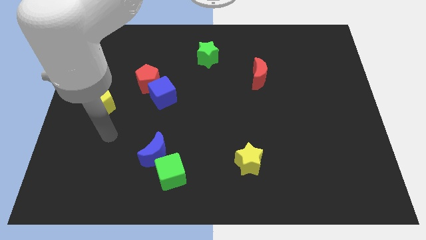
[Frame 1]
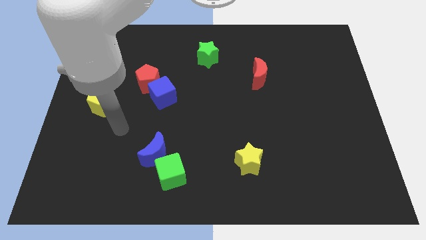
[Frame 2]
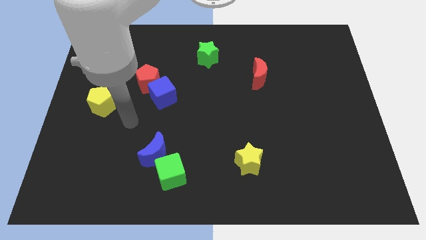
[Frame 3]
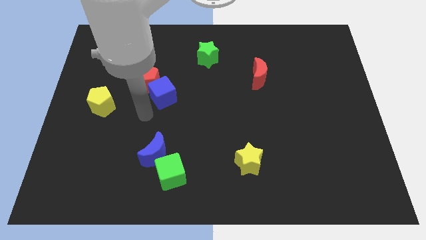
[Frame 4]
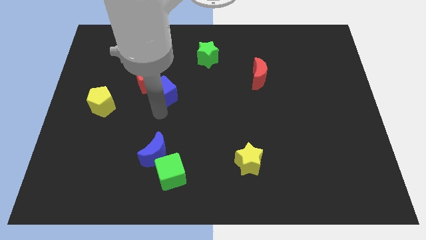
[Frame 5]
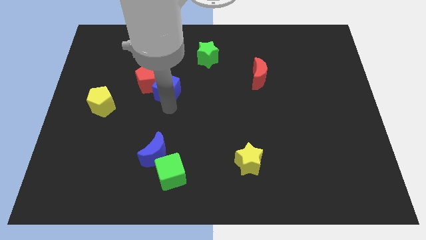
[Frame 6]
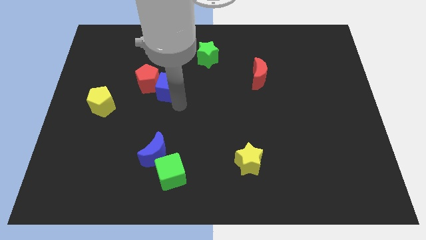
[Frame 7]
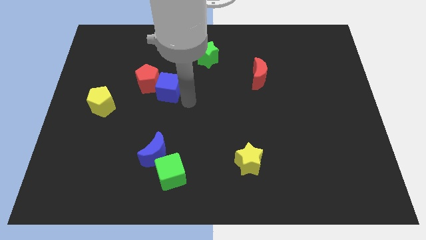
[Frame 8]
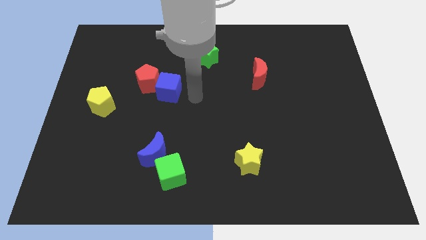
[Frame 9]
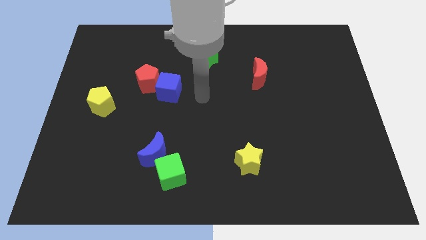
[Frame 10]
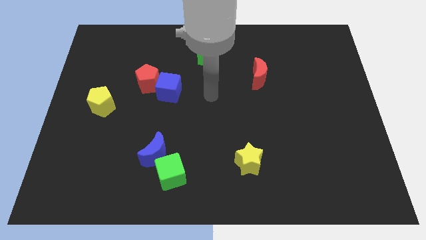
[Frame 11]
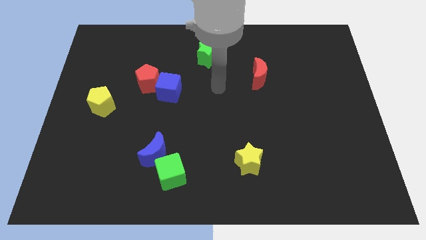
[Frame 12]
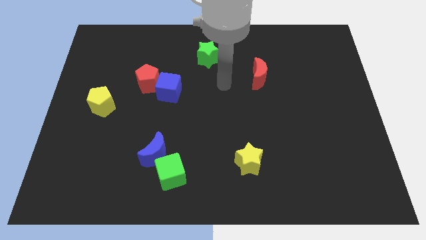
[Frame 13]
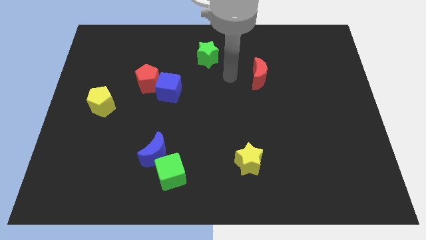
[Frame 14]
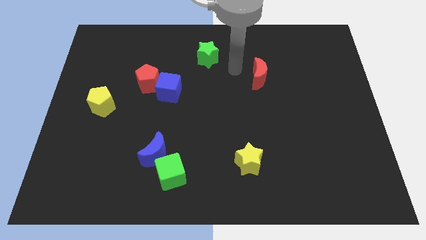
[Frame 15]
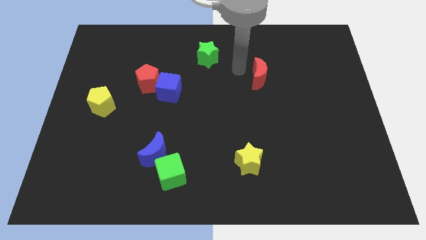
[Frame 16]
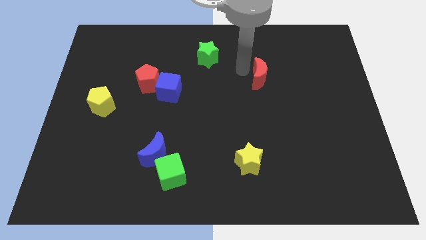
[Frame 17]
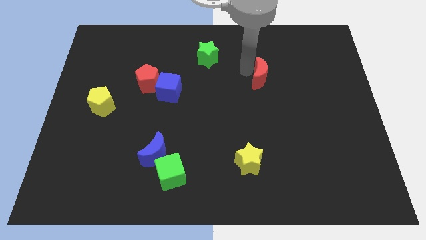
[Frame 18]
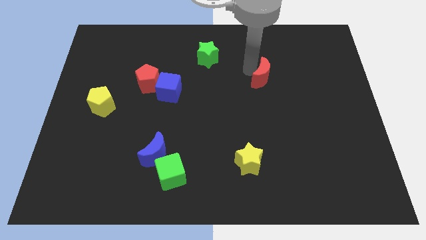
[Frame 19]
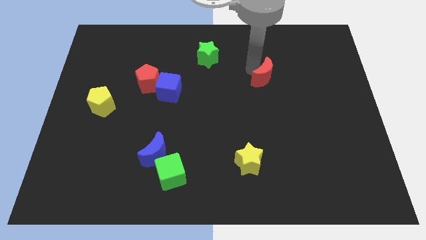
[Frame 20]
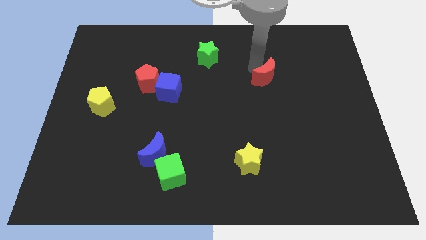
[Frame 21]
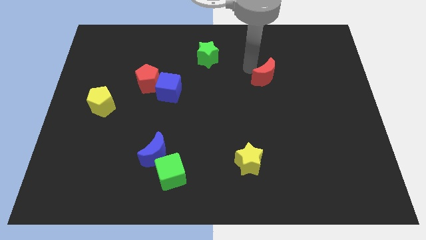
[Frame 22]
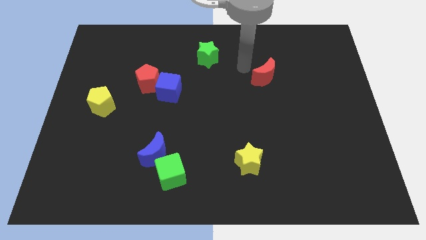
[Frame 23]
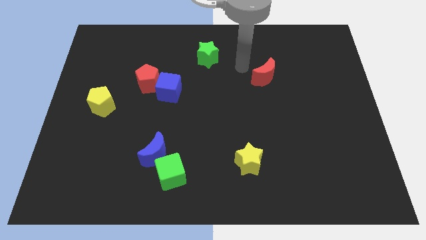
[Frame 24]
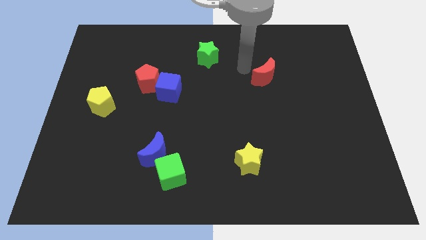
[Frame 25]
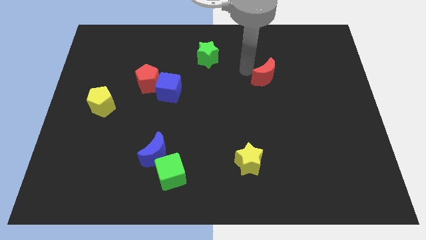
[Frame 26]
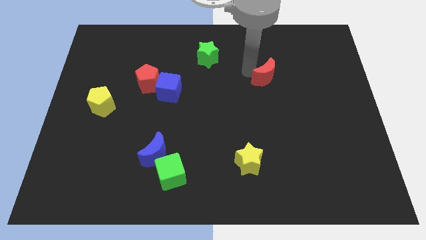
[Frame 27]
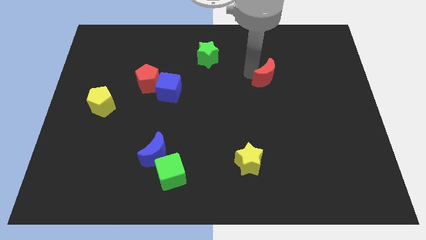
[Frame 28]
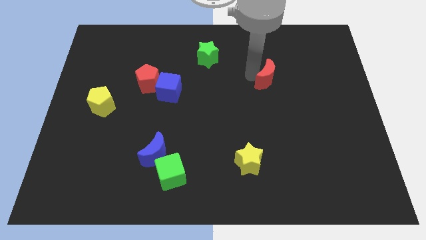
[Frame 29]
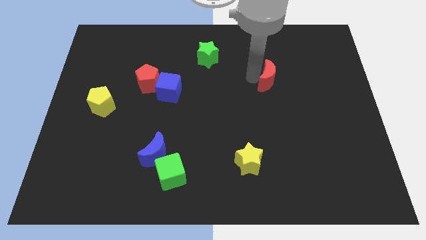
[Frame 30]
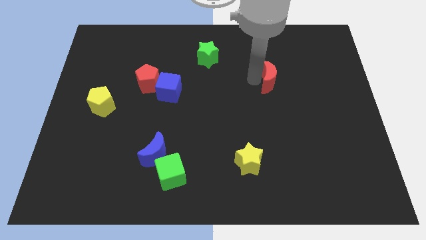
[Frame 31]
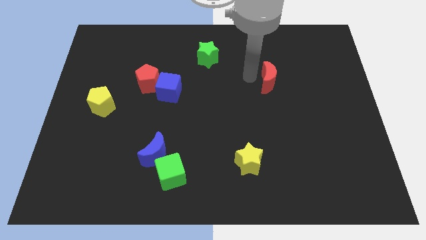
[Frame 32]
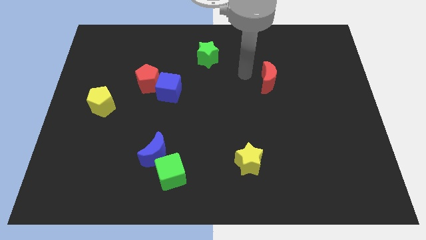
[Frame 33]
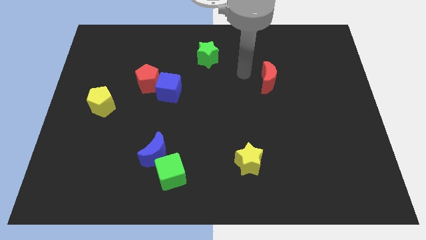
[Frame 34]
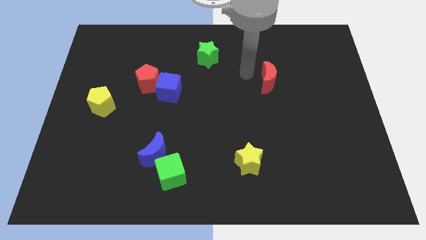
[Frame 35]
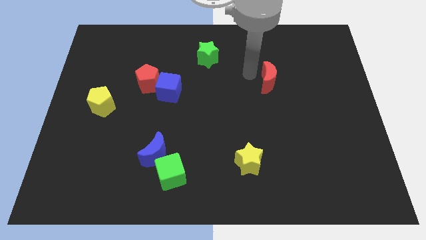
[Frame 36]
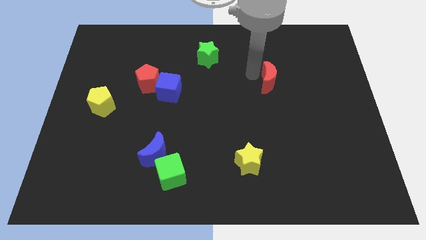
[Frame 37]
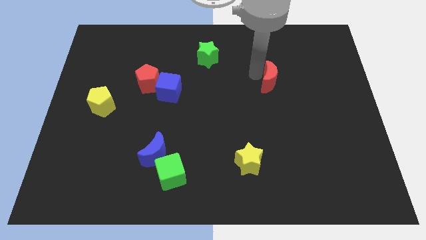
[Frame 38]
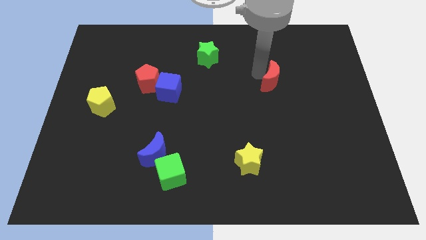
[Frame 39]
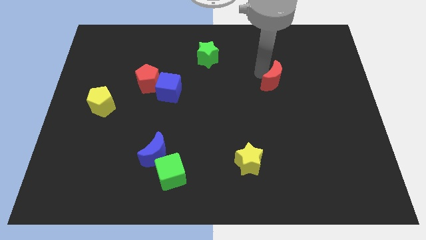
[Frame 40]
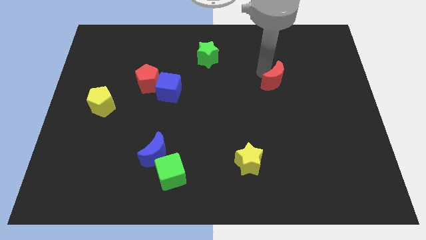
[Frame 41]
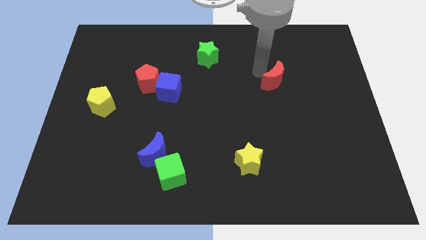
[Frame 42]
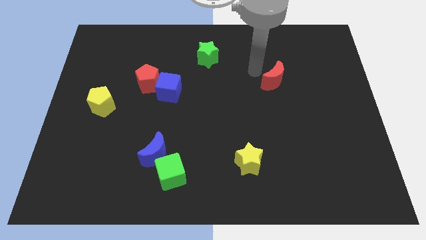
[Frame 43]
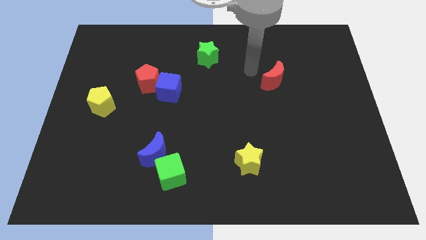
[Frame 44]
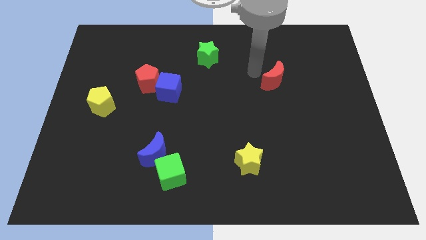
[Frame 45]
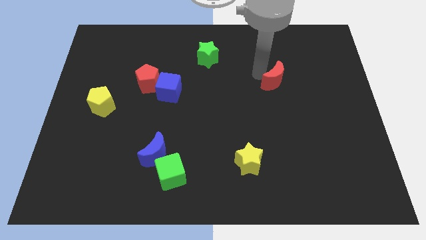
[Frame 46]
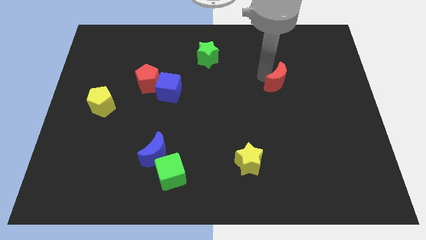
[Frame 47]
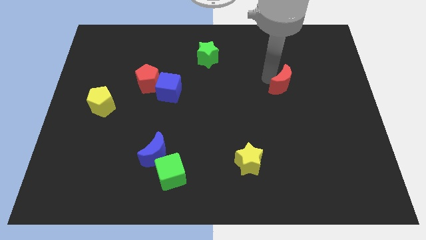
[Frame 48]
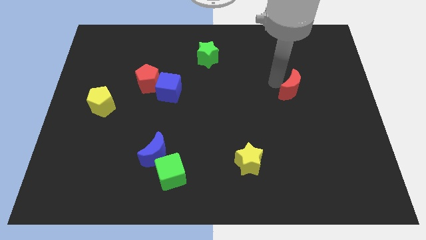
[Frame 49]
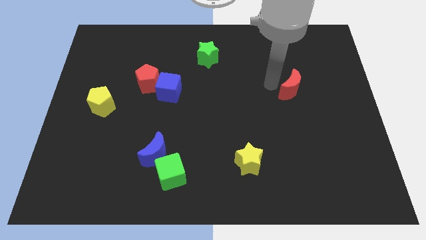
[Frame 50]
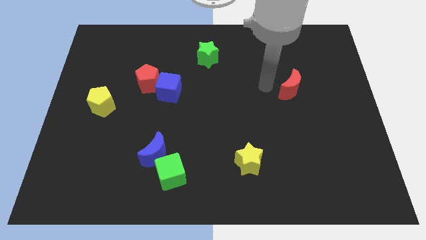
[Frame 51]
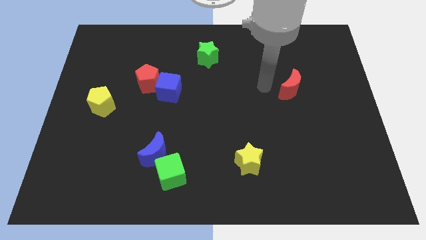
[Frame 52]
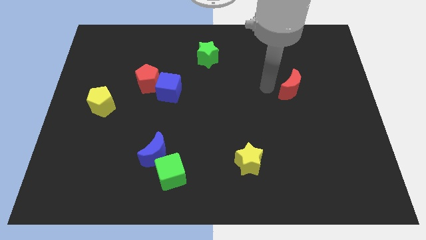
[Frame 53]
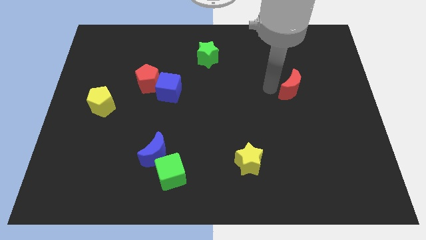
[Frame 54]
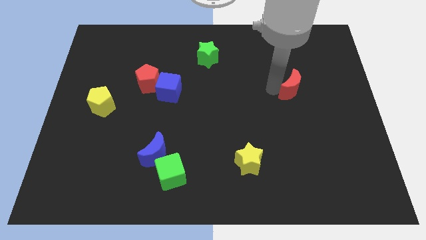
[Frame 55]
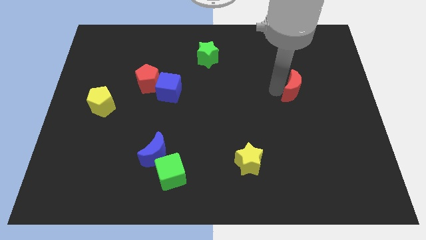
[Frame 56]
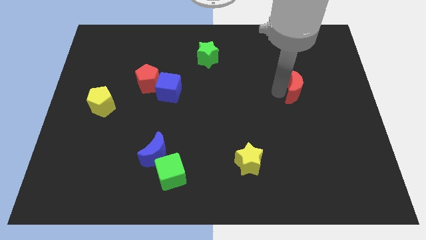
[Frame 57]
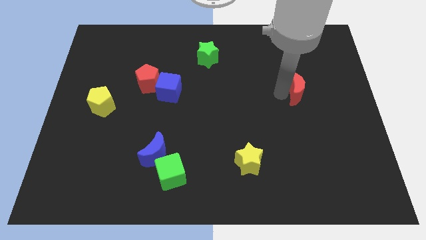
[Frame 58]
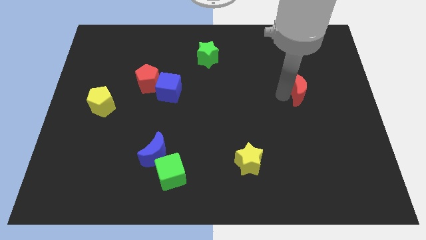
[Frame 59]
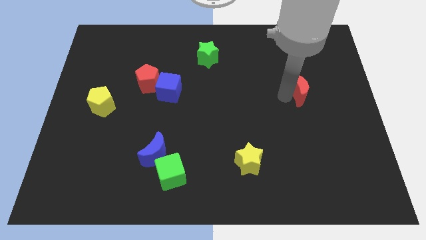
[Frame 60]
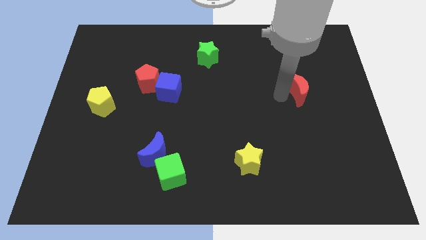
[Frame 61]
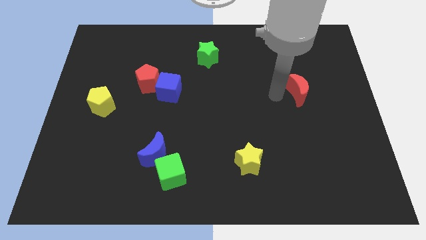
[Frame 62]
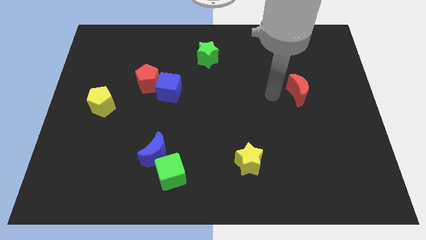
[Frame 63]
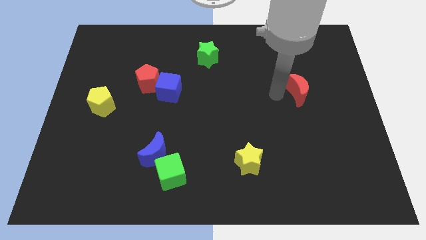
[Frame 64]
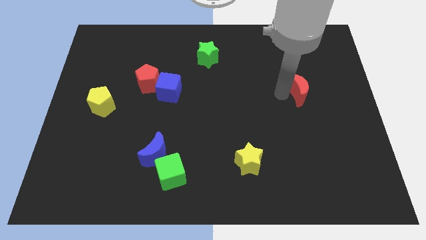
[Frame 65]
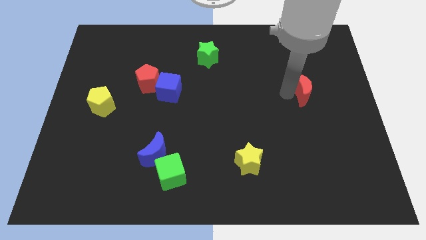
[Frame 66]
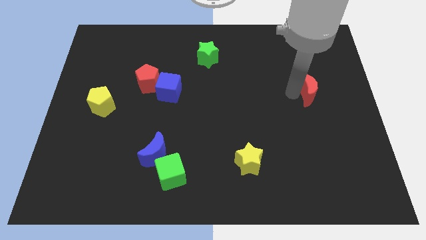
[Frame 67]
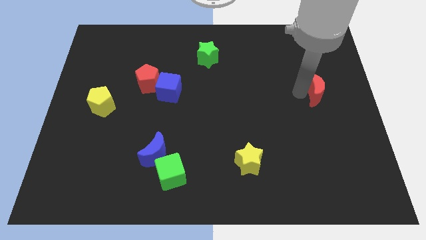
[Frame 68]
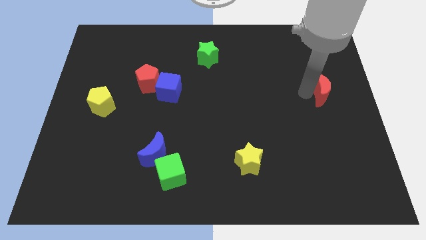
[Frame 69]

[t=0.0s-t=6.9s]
slide the red moon to the right side
